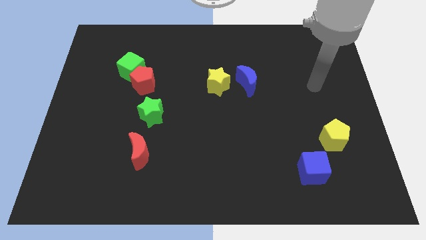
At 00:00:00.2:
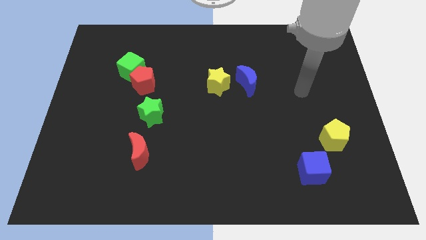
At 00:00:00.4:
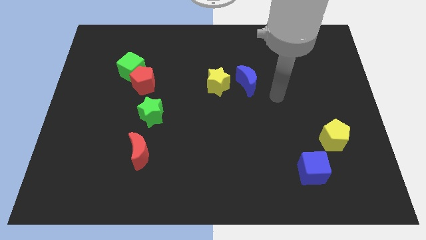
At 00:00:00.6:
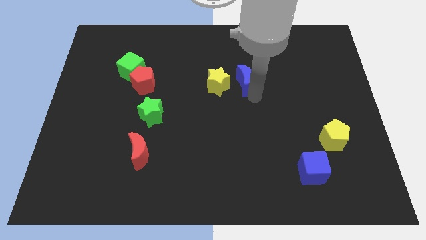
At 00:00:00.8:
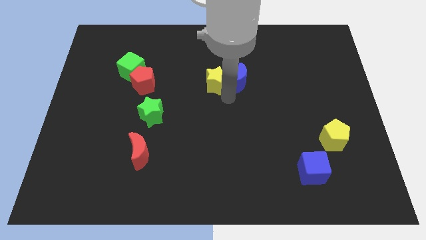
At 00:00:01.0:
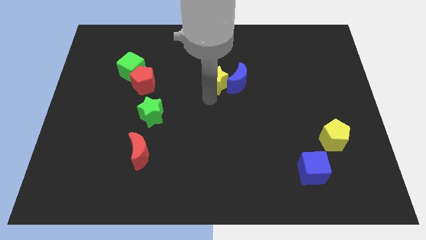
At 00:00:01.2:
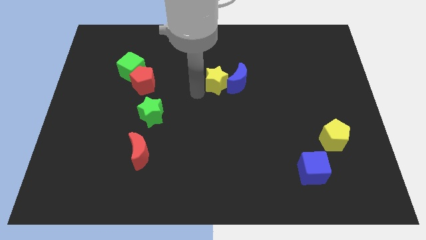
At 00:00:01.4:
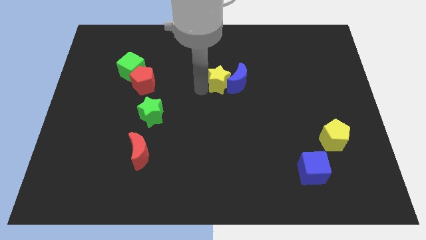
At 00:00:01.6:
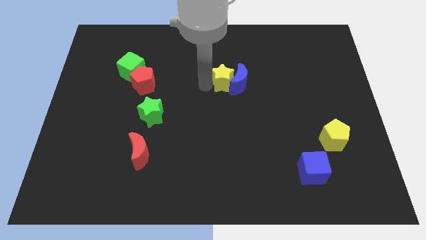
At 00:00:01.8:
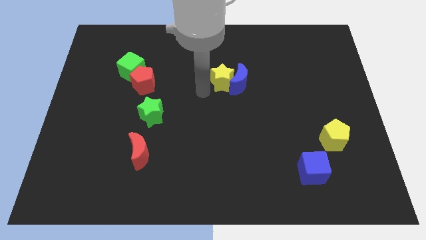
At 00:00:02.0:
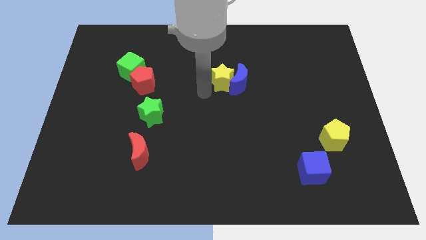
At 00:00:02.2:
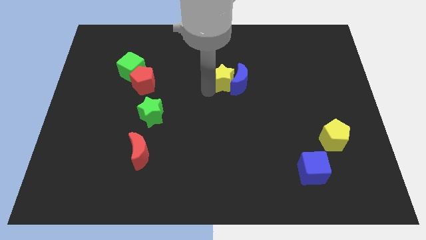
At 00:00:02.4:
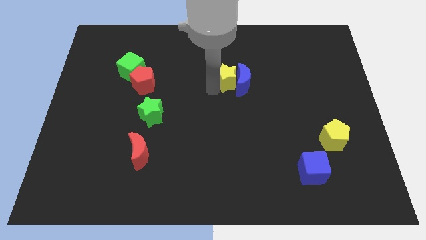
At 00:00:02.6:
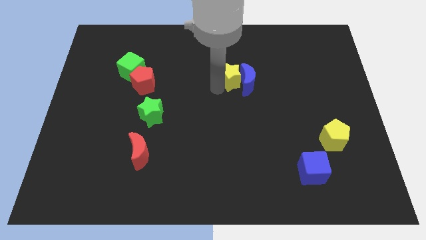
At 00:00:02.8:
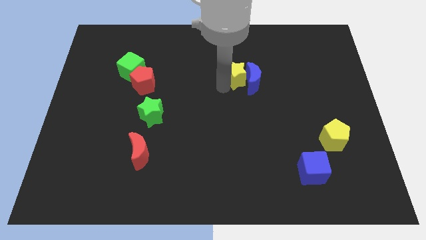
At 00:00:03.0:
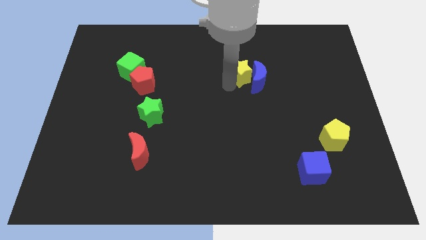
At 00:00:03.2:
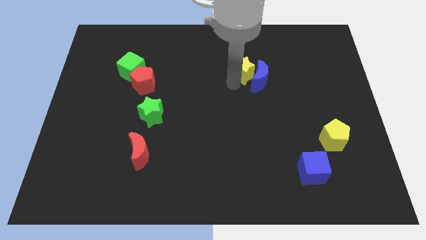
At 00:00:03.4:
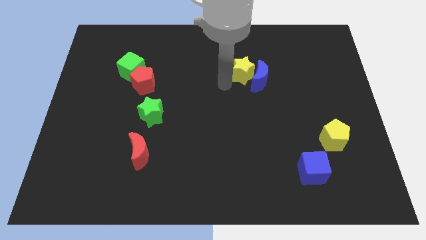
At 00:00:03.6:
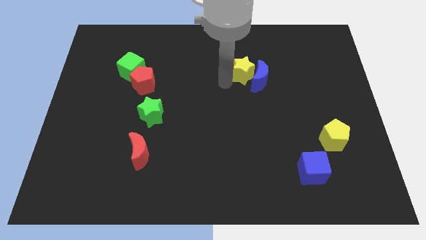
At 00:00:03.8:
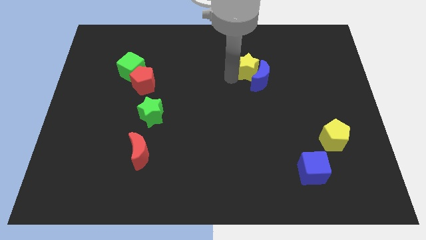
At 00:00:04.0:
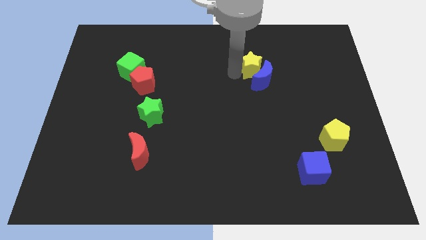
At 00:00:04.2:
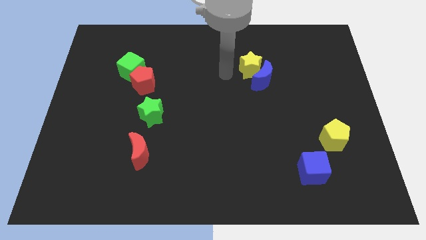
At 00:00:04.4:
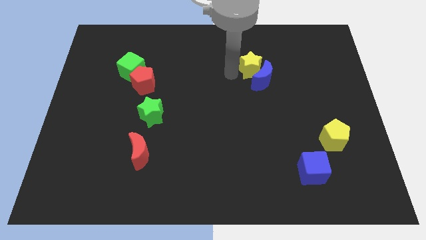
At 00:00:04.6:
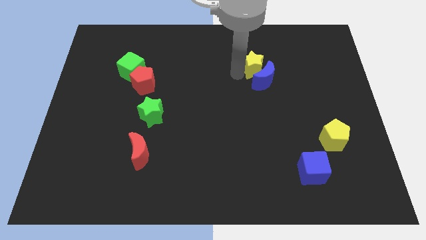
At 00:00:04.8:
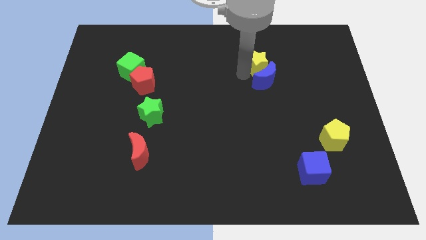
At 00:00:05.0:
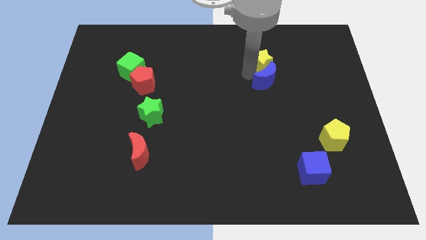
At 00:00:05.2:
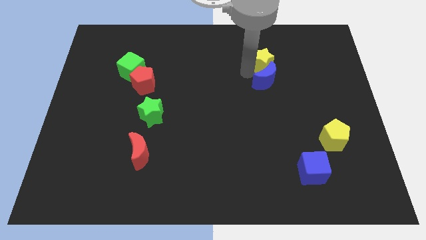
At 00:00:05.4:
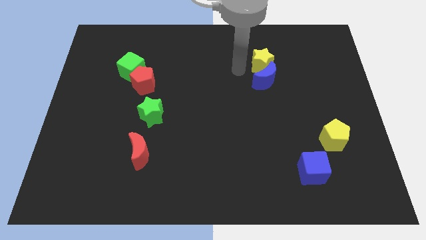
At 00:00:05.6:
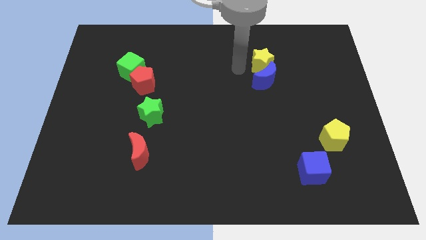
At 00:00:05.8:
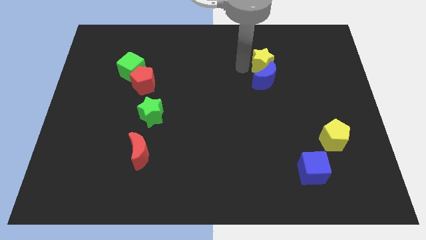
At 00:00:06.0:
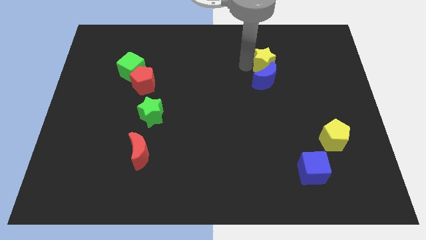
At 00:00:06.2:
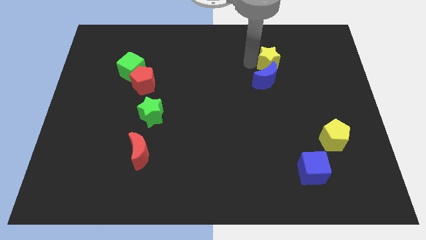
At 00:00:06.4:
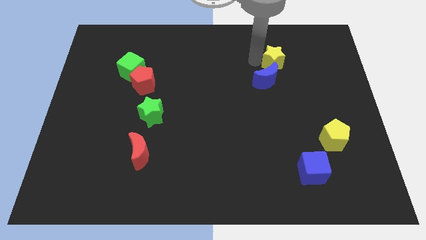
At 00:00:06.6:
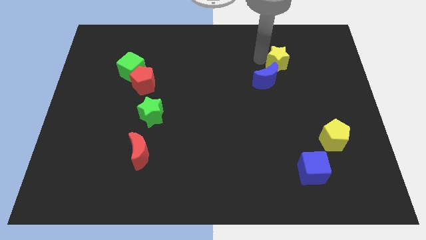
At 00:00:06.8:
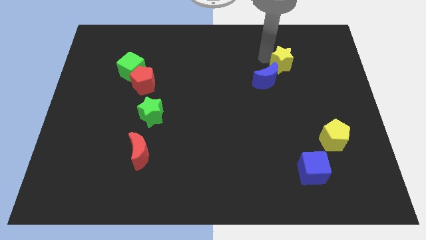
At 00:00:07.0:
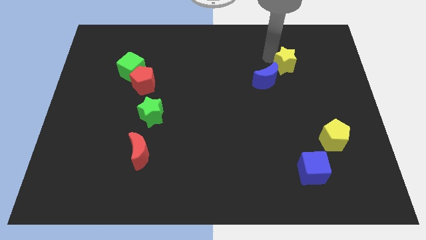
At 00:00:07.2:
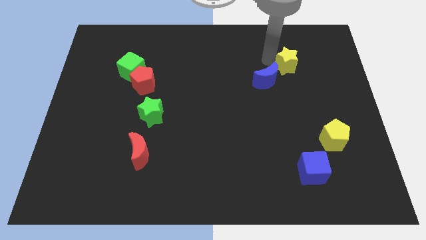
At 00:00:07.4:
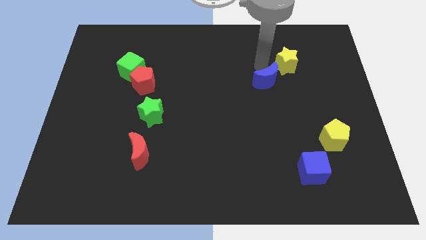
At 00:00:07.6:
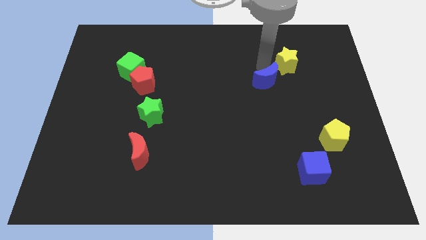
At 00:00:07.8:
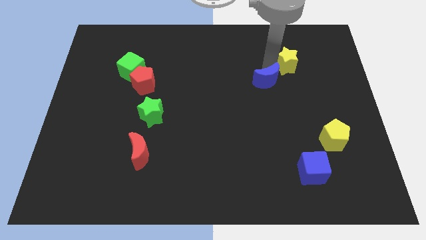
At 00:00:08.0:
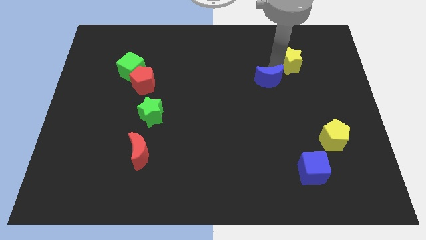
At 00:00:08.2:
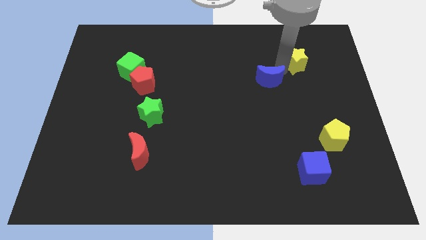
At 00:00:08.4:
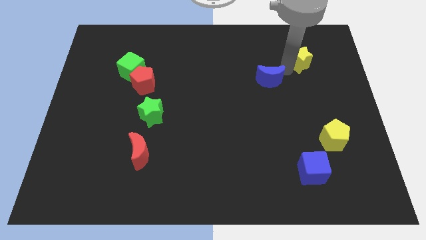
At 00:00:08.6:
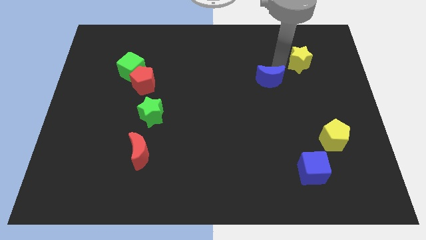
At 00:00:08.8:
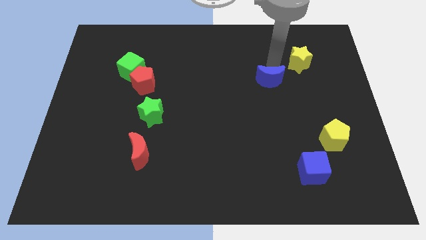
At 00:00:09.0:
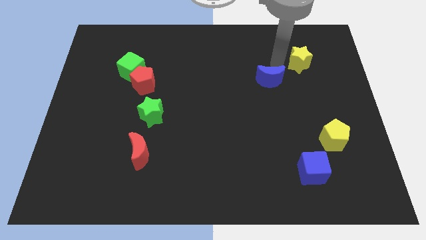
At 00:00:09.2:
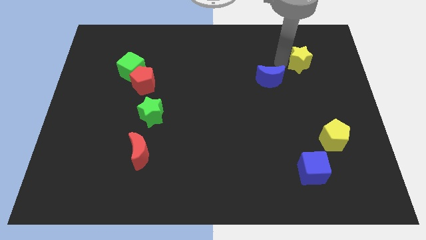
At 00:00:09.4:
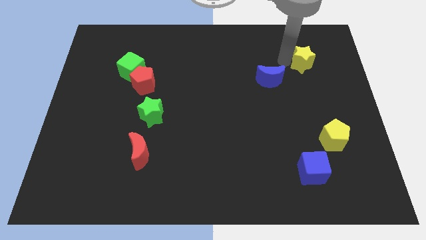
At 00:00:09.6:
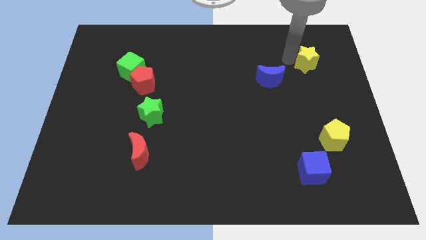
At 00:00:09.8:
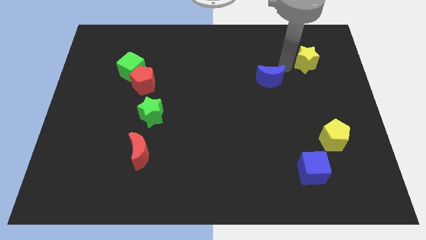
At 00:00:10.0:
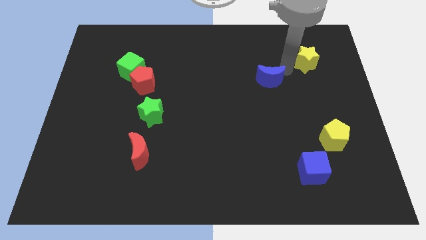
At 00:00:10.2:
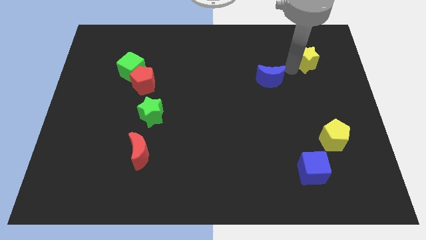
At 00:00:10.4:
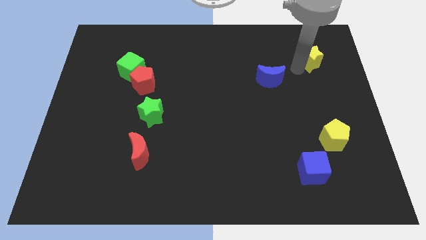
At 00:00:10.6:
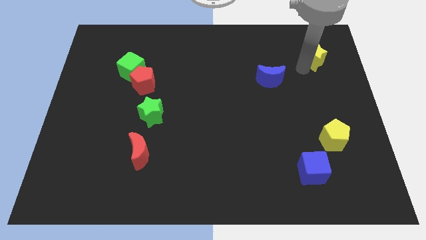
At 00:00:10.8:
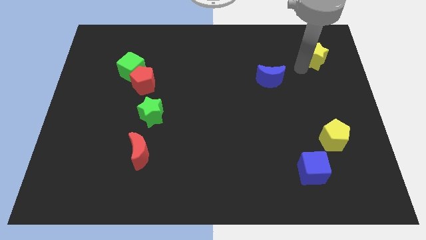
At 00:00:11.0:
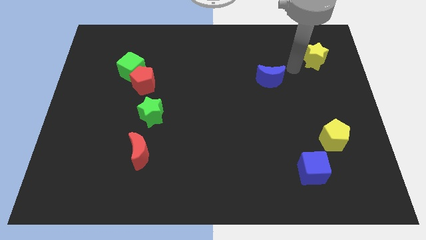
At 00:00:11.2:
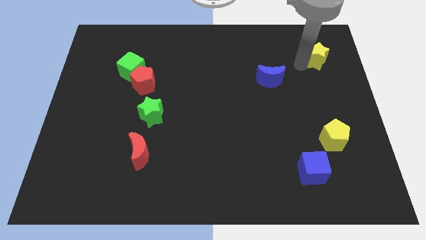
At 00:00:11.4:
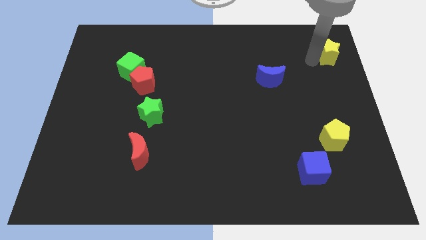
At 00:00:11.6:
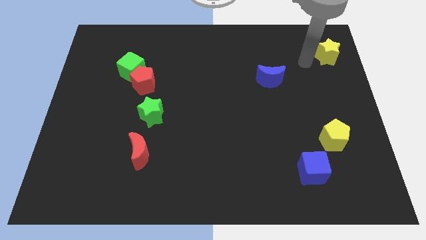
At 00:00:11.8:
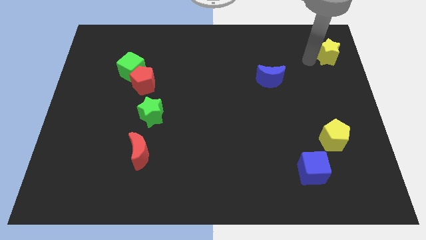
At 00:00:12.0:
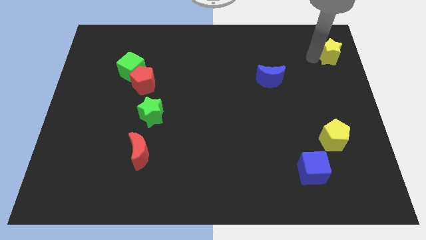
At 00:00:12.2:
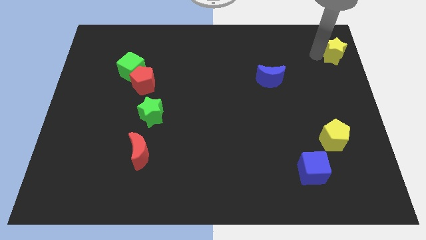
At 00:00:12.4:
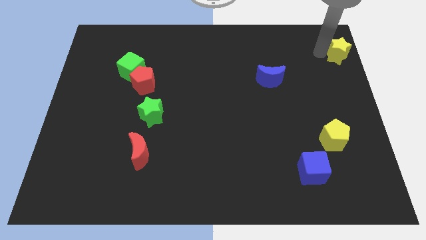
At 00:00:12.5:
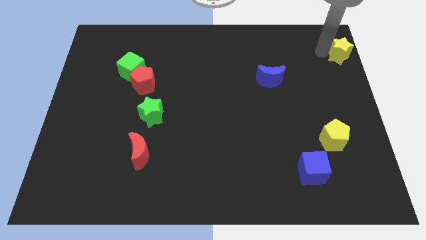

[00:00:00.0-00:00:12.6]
put the yellow star to the top right corner

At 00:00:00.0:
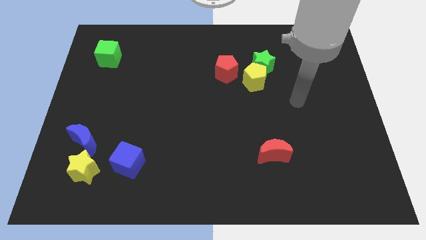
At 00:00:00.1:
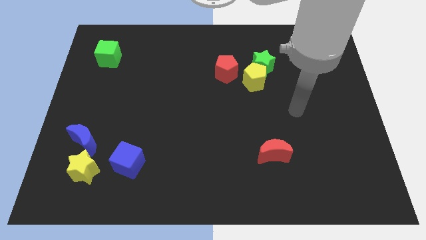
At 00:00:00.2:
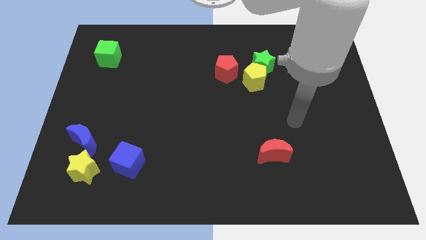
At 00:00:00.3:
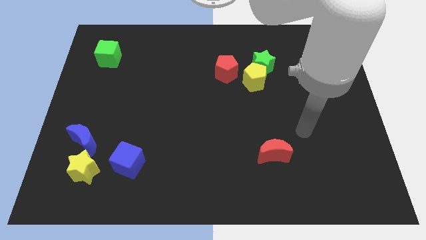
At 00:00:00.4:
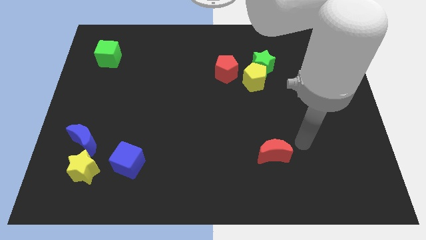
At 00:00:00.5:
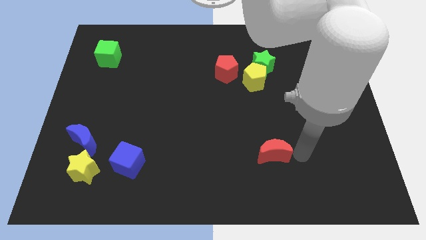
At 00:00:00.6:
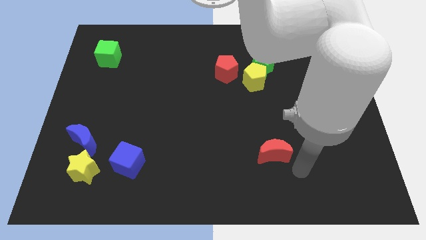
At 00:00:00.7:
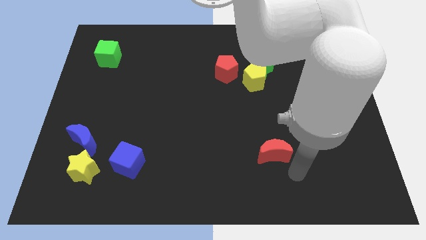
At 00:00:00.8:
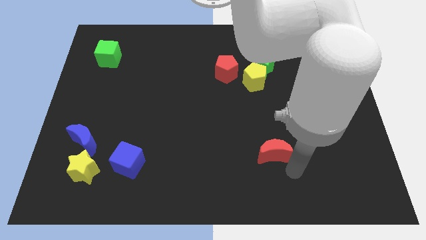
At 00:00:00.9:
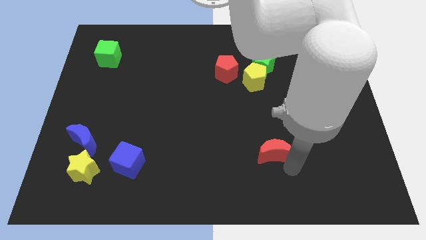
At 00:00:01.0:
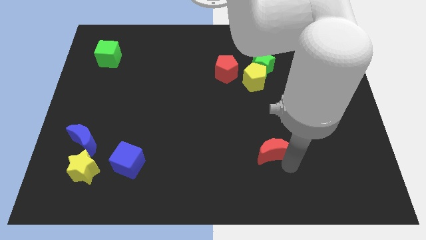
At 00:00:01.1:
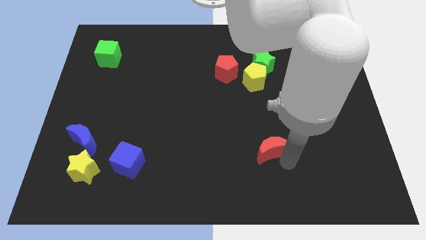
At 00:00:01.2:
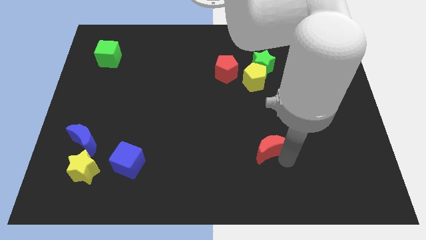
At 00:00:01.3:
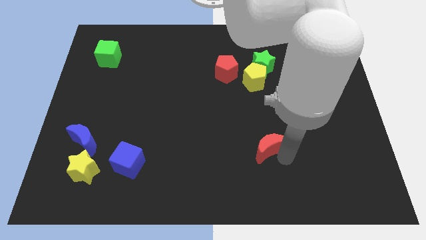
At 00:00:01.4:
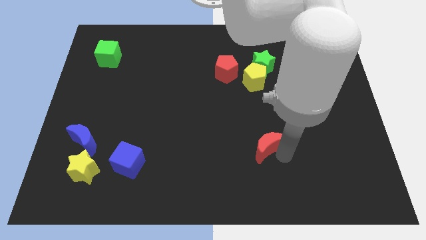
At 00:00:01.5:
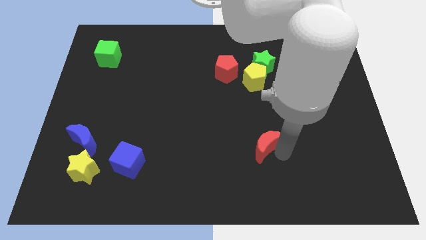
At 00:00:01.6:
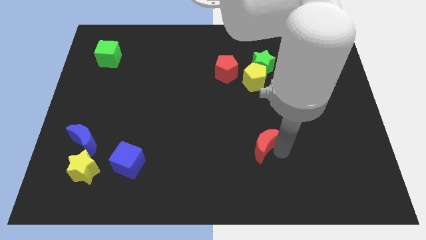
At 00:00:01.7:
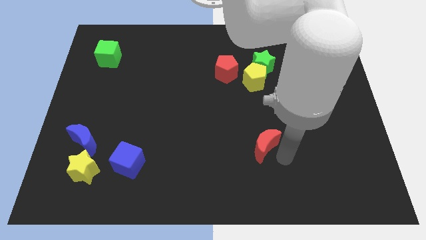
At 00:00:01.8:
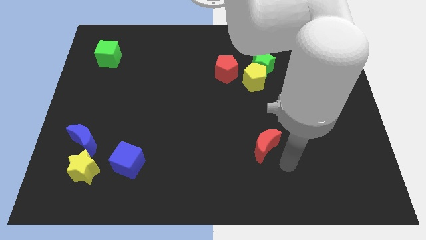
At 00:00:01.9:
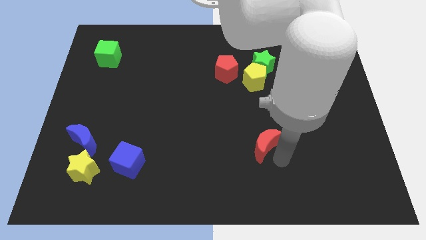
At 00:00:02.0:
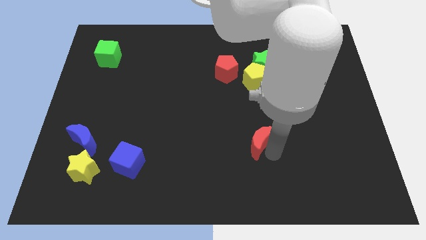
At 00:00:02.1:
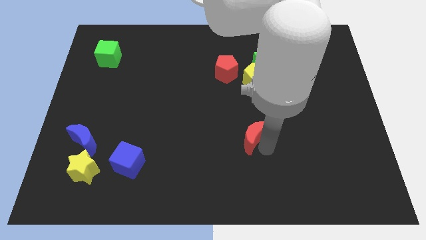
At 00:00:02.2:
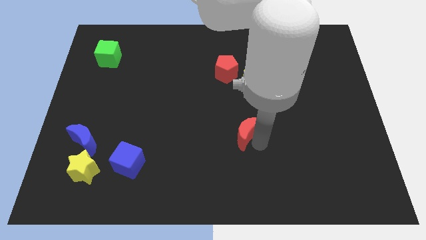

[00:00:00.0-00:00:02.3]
put the red moon to the middle
